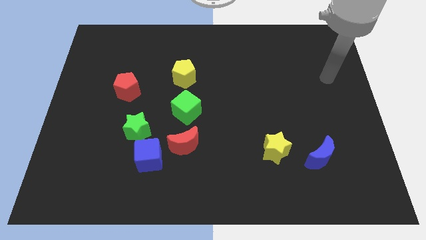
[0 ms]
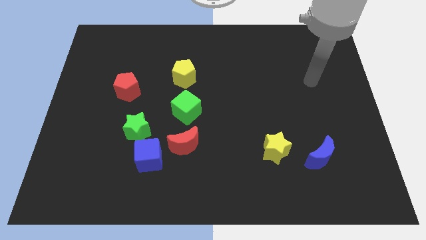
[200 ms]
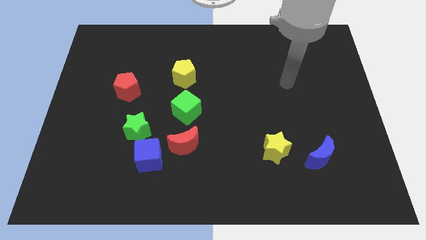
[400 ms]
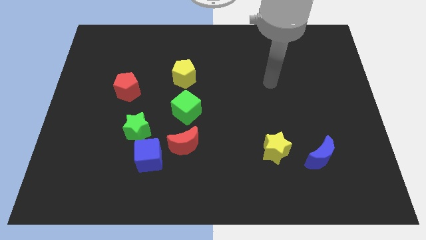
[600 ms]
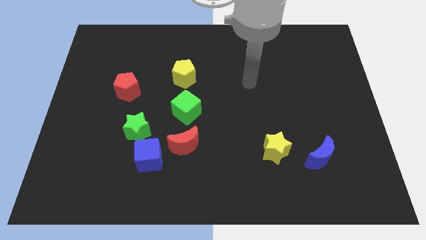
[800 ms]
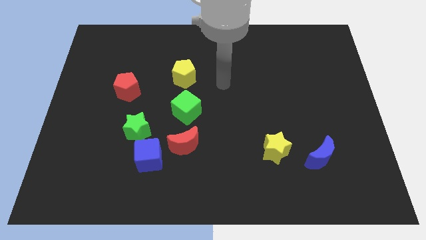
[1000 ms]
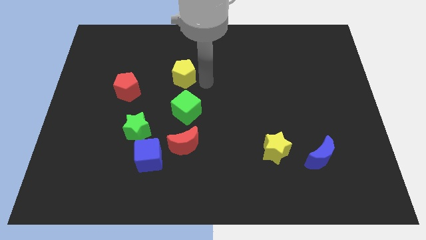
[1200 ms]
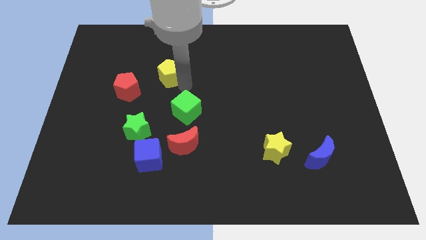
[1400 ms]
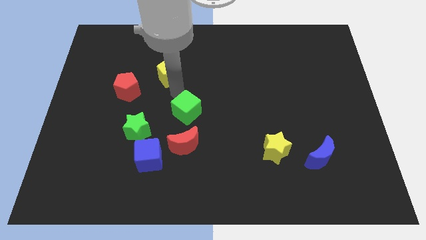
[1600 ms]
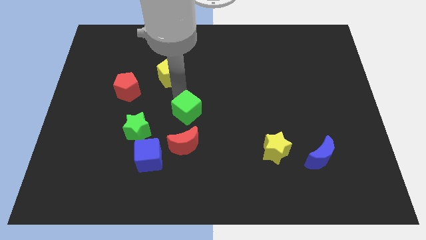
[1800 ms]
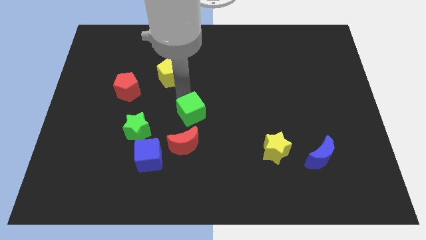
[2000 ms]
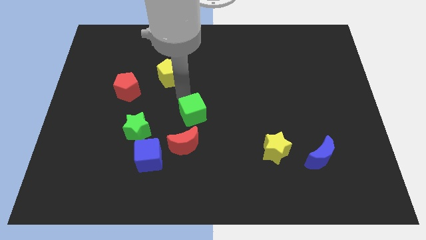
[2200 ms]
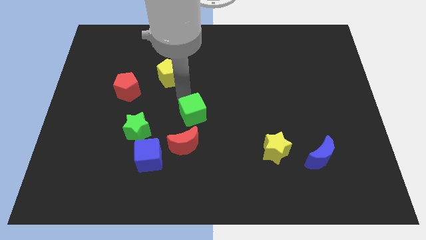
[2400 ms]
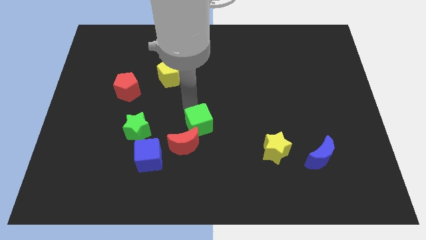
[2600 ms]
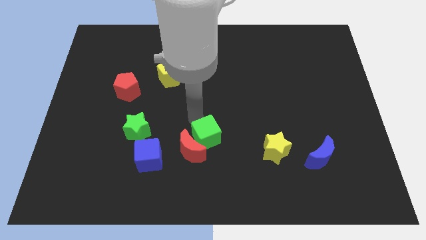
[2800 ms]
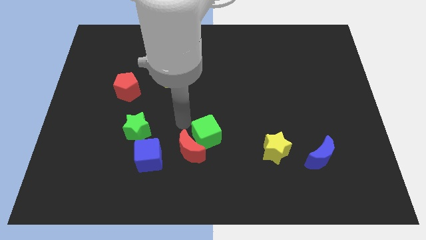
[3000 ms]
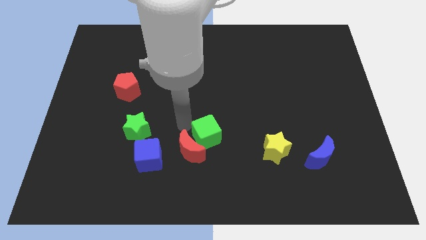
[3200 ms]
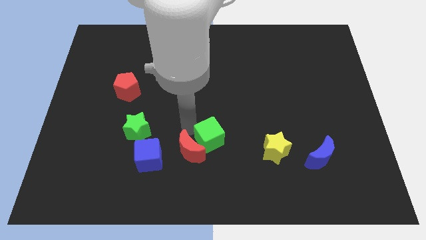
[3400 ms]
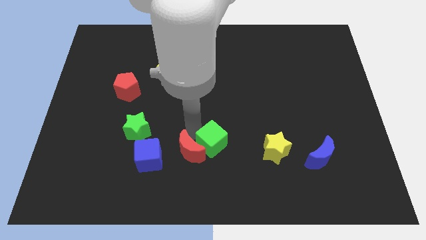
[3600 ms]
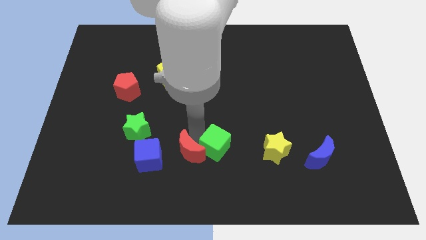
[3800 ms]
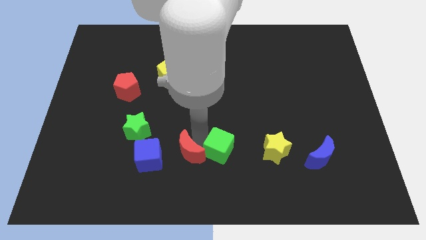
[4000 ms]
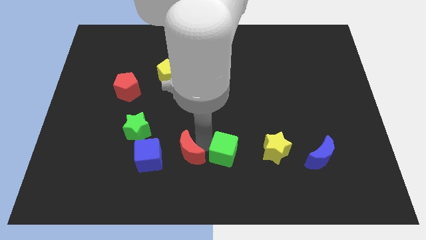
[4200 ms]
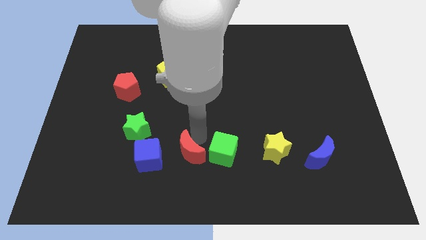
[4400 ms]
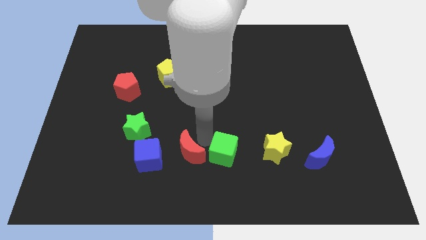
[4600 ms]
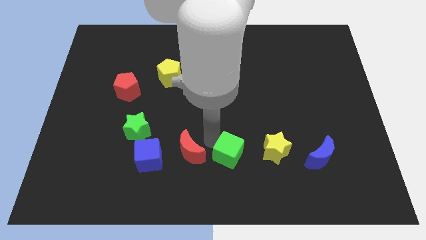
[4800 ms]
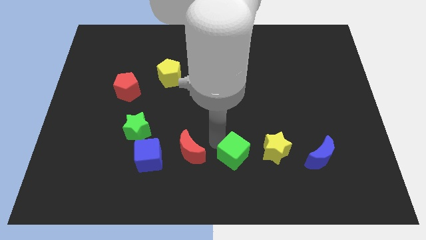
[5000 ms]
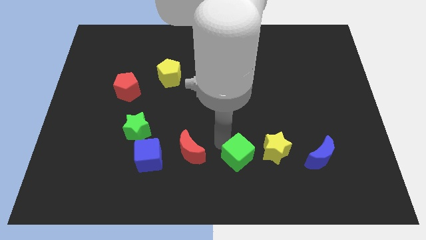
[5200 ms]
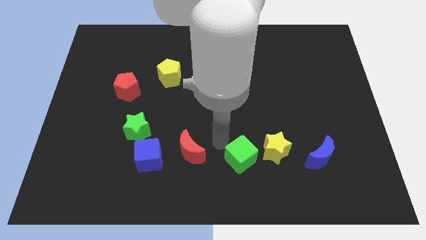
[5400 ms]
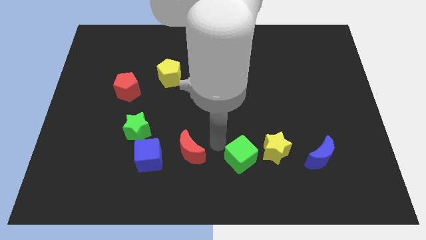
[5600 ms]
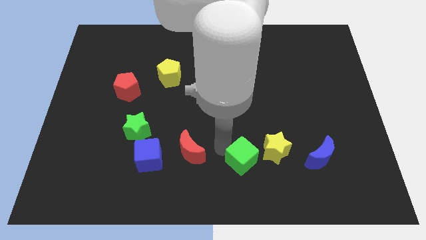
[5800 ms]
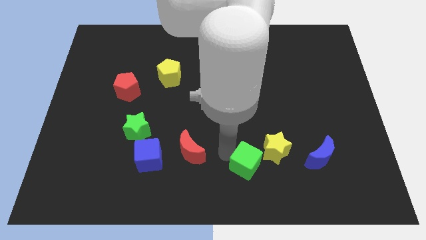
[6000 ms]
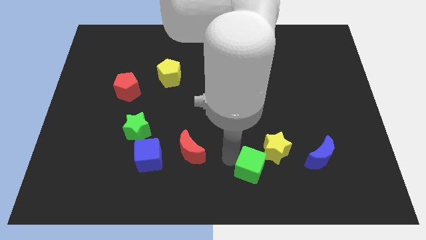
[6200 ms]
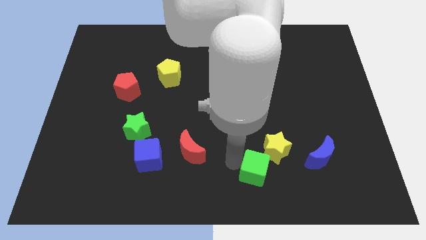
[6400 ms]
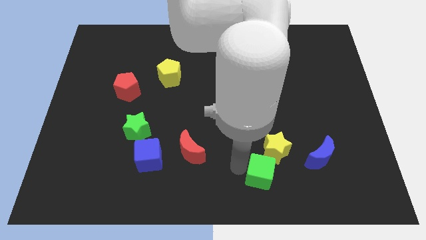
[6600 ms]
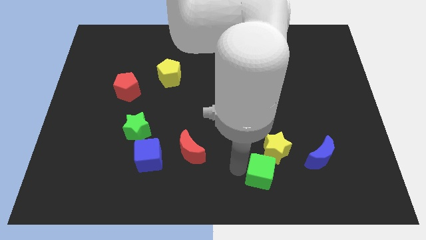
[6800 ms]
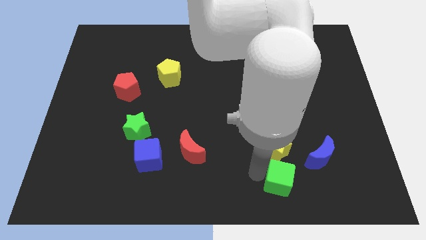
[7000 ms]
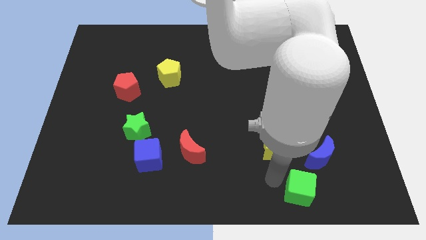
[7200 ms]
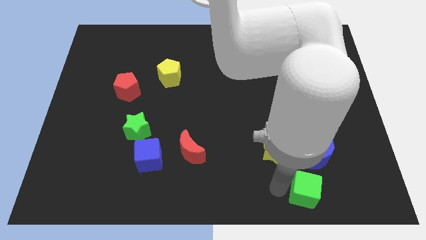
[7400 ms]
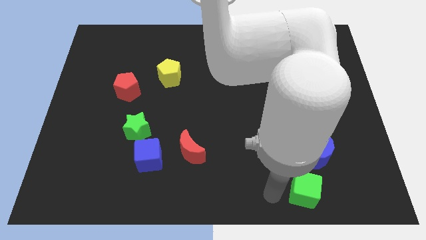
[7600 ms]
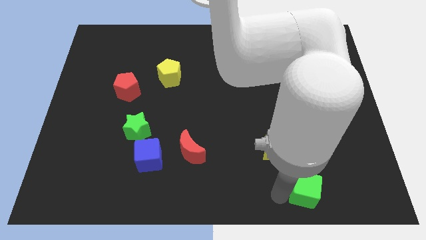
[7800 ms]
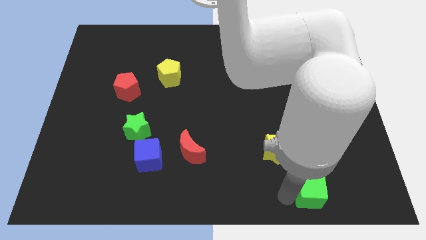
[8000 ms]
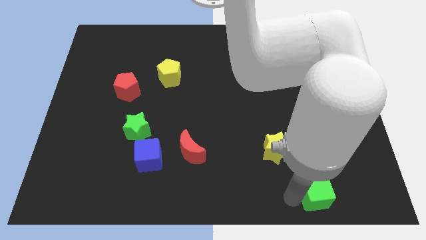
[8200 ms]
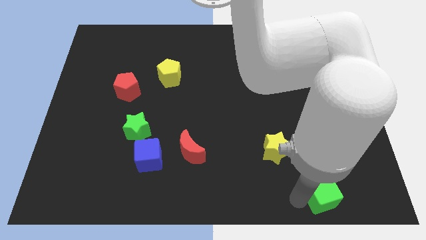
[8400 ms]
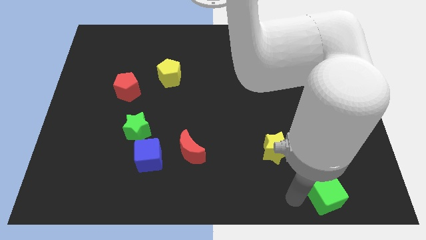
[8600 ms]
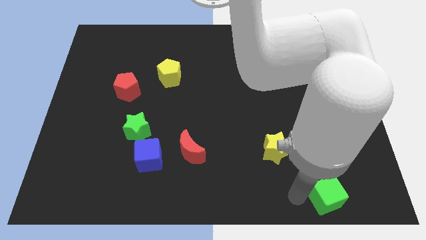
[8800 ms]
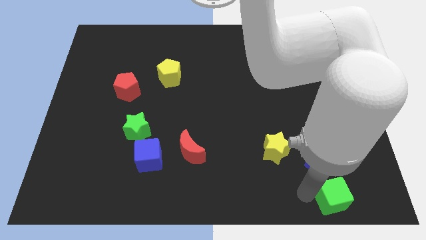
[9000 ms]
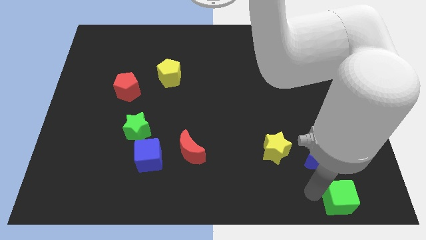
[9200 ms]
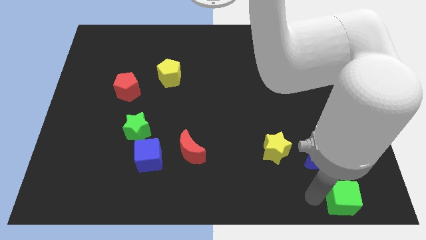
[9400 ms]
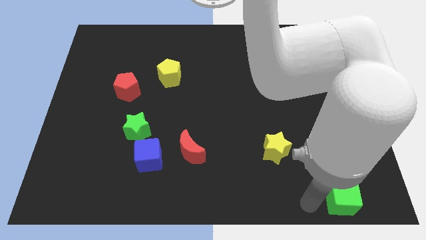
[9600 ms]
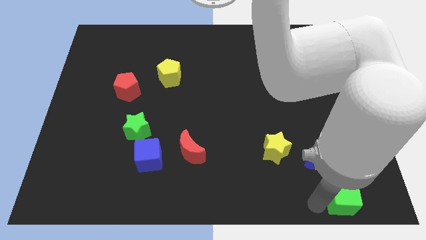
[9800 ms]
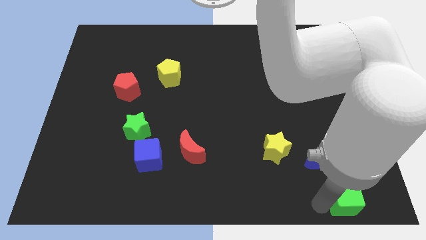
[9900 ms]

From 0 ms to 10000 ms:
put the green cube to the bottom right of the board
